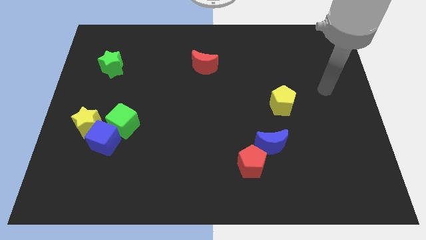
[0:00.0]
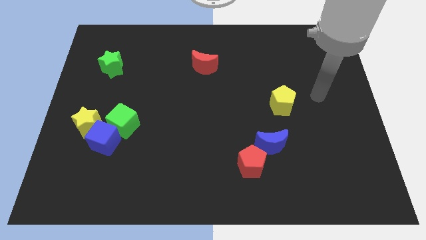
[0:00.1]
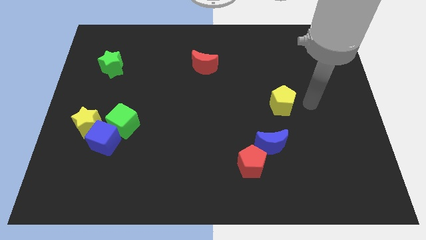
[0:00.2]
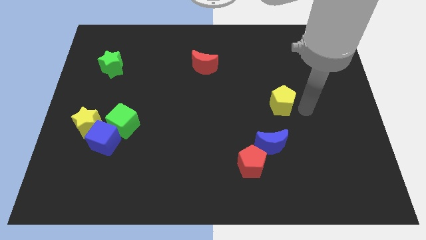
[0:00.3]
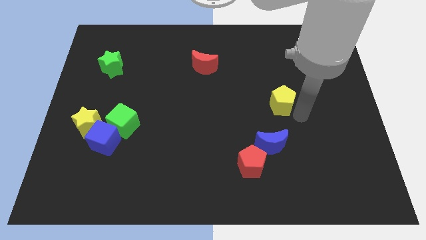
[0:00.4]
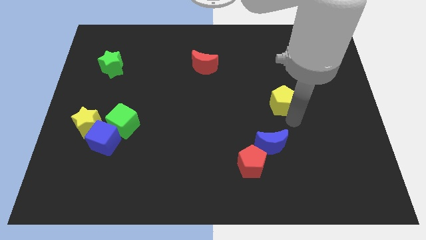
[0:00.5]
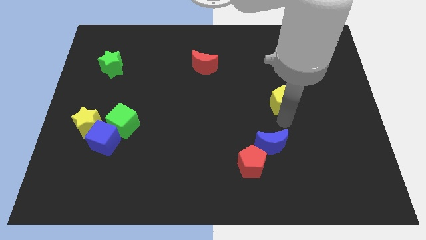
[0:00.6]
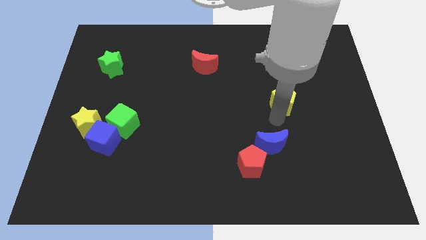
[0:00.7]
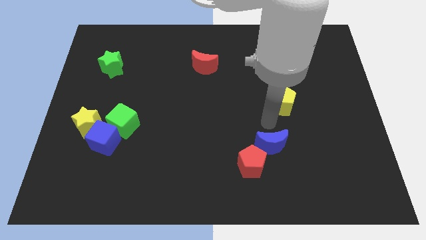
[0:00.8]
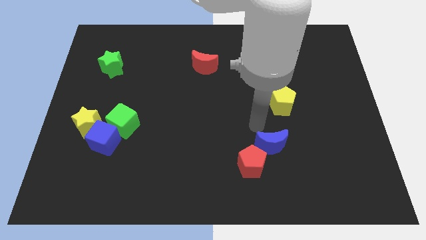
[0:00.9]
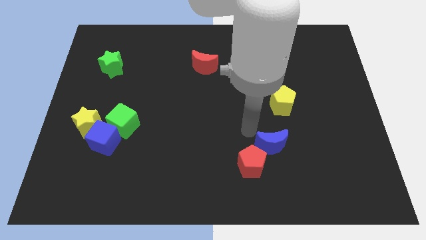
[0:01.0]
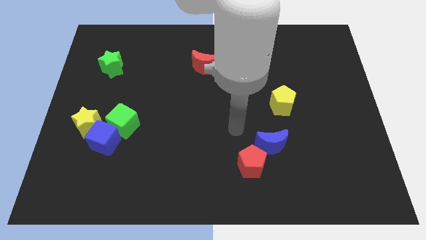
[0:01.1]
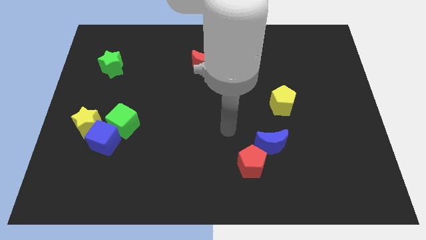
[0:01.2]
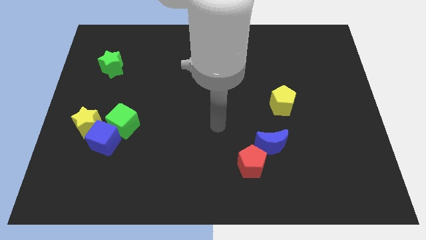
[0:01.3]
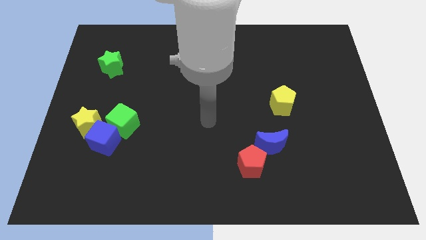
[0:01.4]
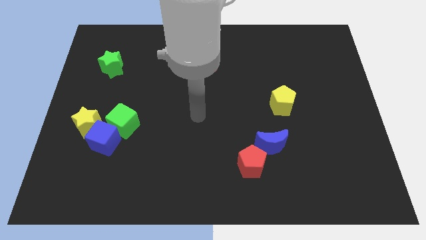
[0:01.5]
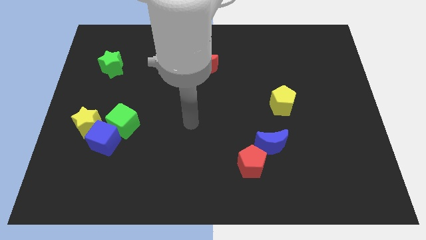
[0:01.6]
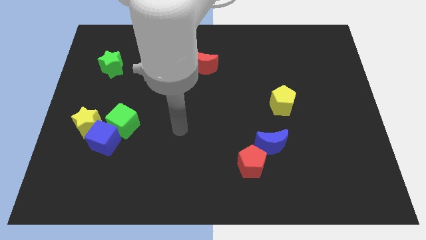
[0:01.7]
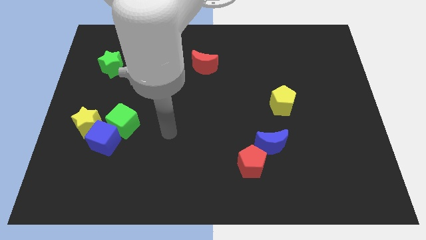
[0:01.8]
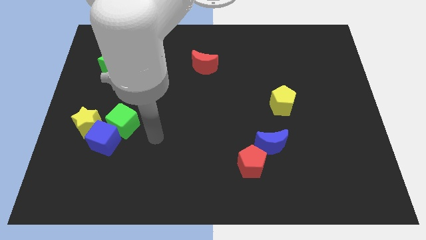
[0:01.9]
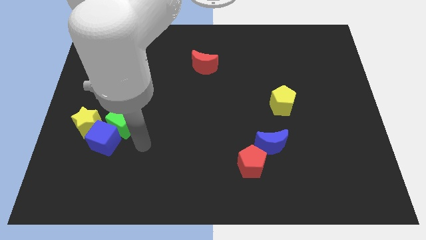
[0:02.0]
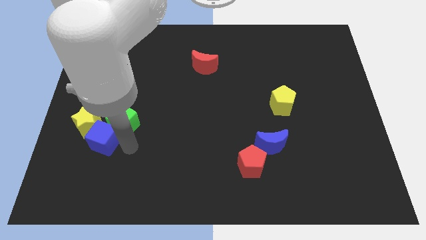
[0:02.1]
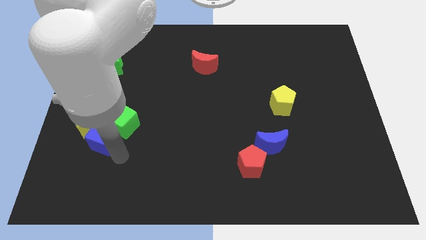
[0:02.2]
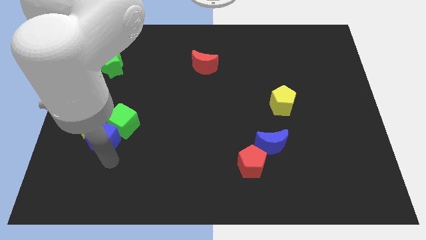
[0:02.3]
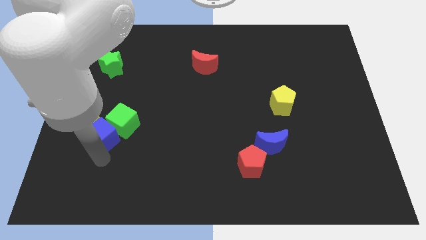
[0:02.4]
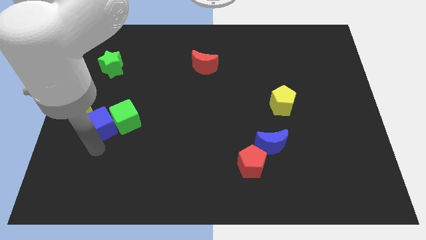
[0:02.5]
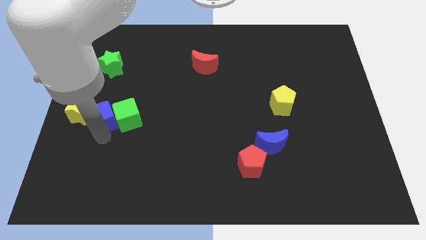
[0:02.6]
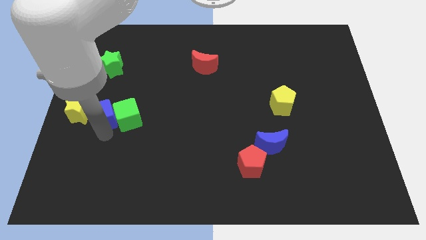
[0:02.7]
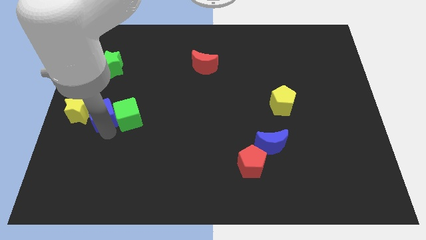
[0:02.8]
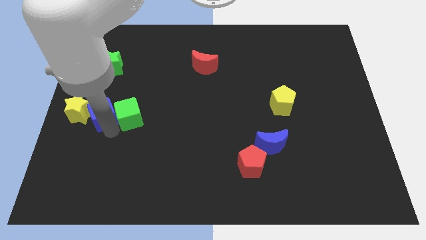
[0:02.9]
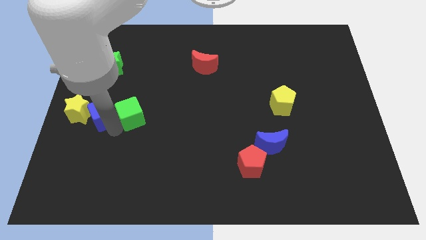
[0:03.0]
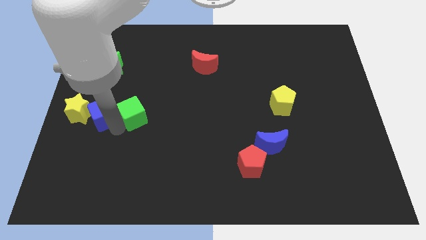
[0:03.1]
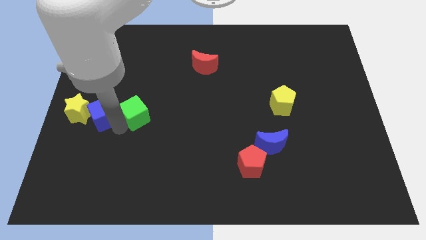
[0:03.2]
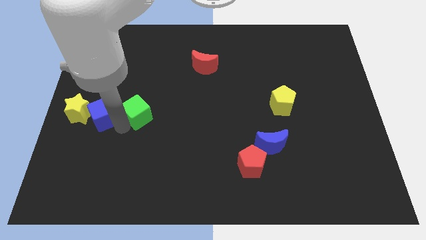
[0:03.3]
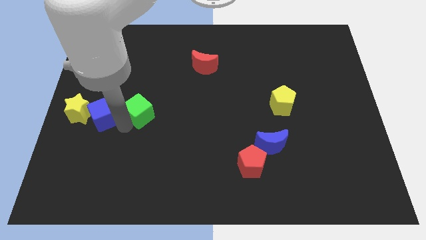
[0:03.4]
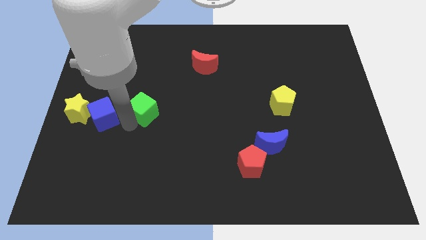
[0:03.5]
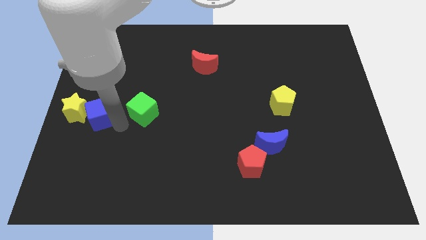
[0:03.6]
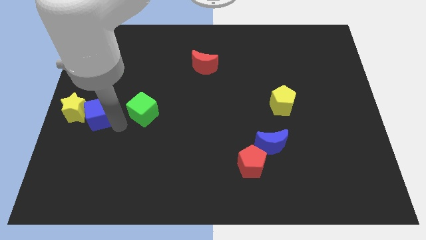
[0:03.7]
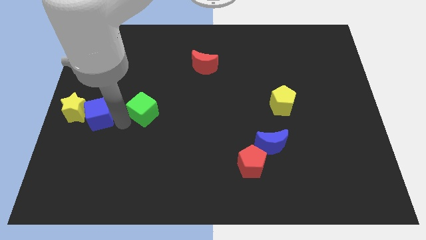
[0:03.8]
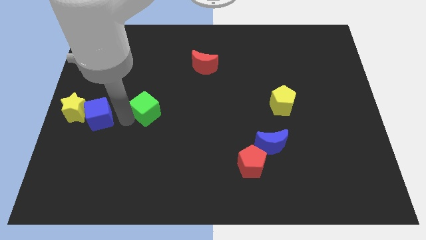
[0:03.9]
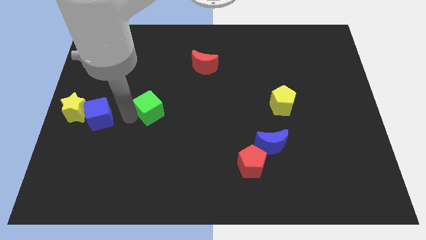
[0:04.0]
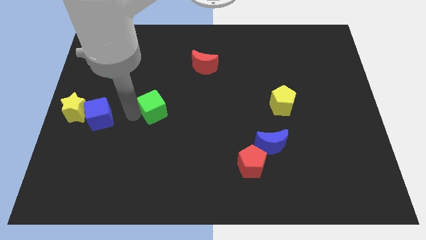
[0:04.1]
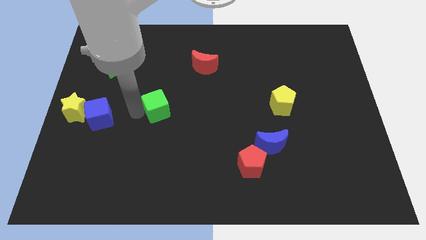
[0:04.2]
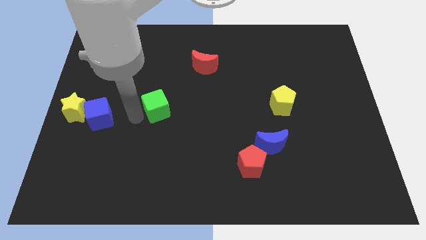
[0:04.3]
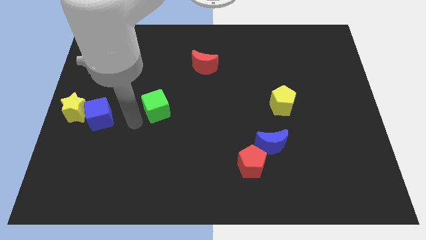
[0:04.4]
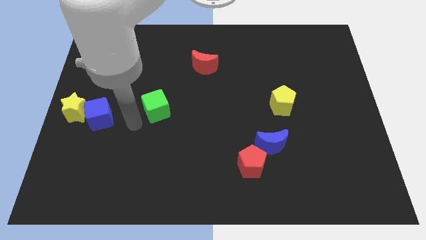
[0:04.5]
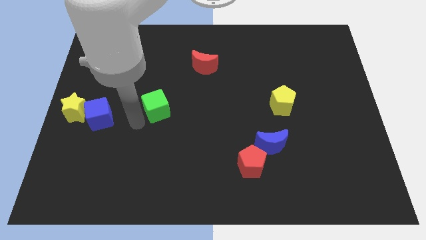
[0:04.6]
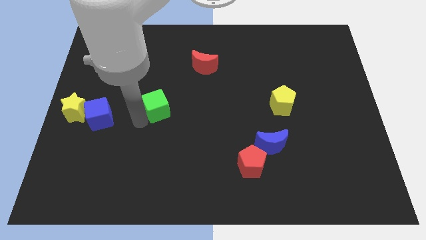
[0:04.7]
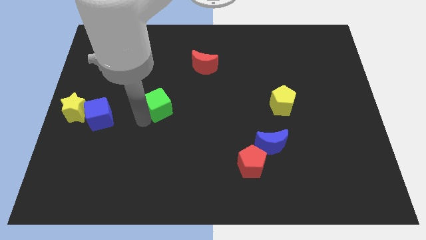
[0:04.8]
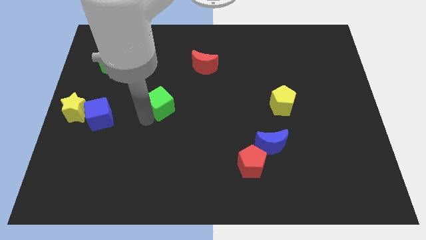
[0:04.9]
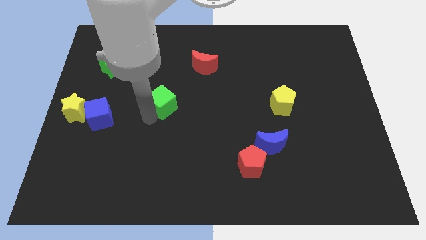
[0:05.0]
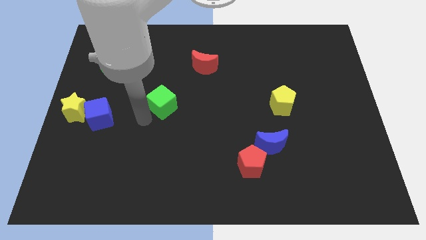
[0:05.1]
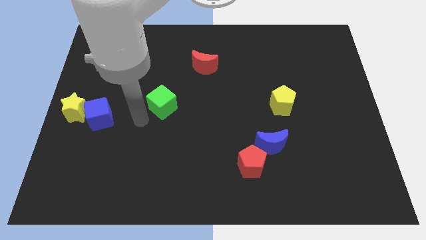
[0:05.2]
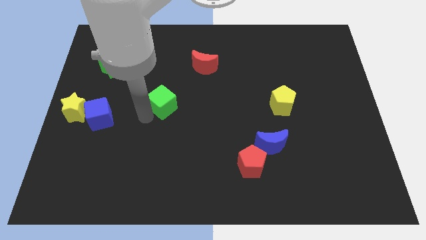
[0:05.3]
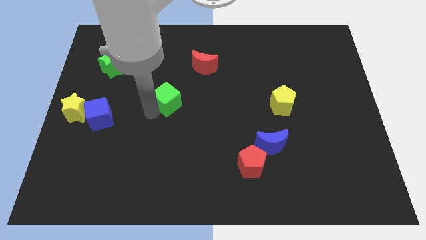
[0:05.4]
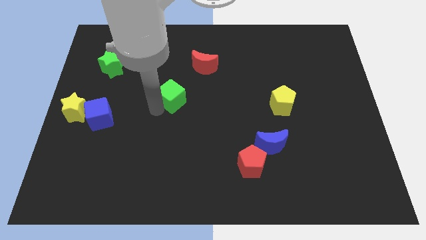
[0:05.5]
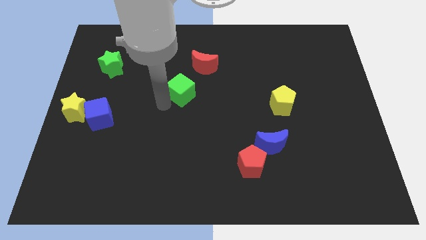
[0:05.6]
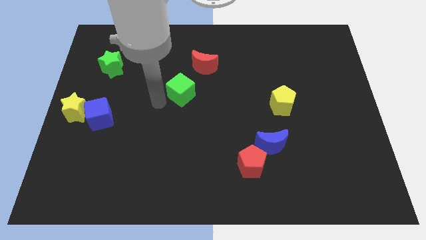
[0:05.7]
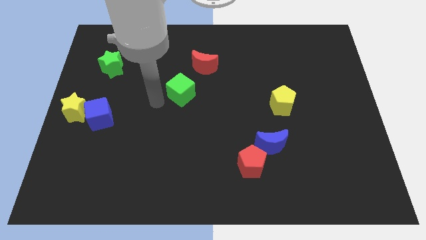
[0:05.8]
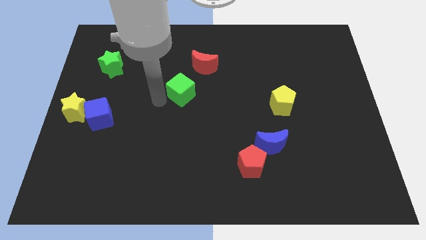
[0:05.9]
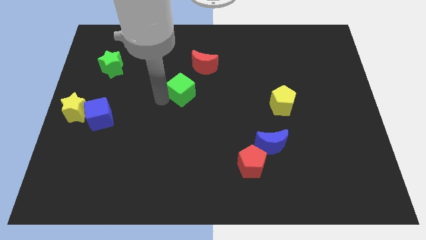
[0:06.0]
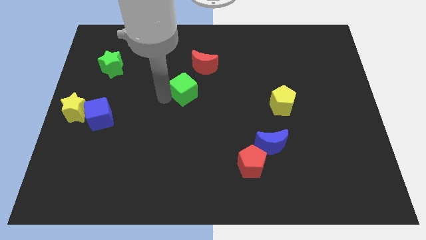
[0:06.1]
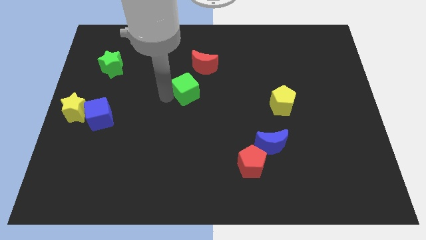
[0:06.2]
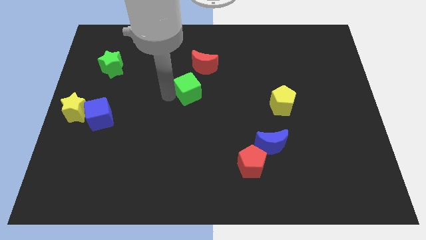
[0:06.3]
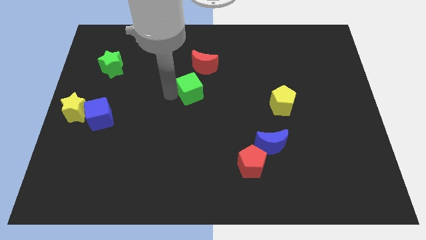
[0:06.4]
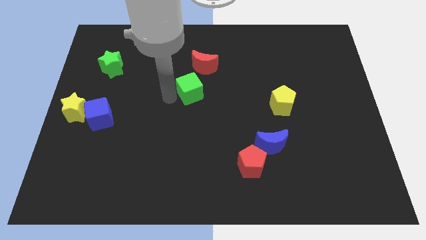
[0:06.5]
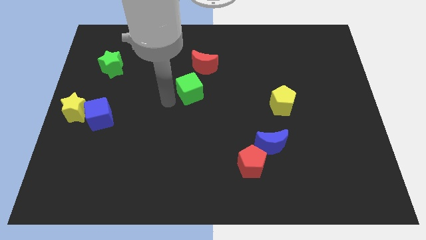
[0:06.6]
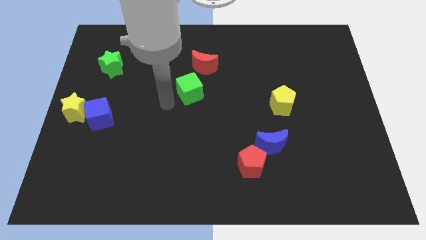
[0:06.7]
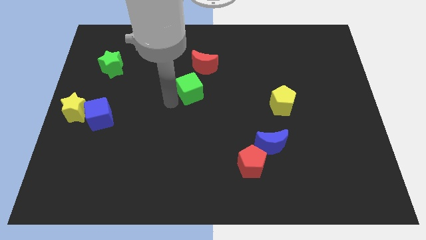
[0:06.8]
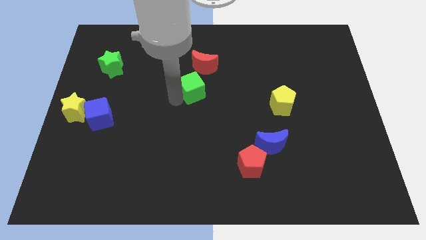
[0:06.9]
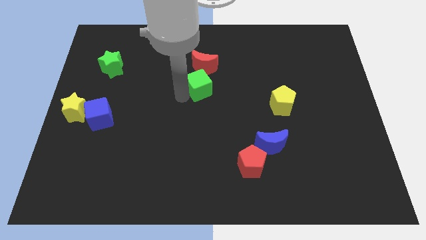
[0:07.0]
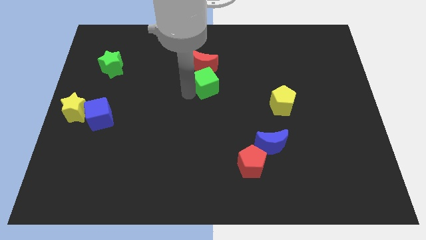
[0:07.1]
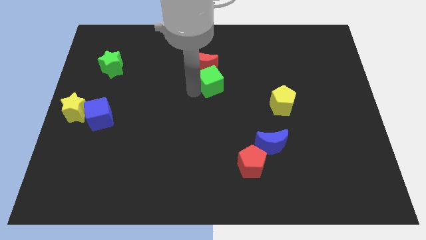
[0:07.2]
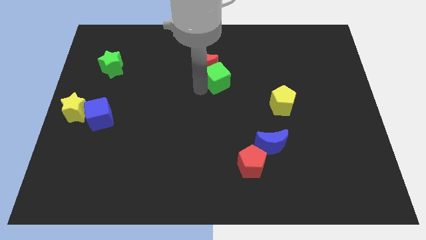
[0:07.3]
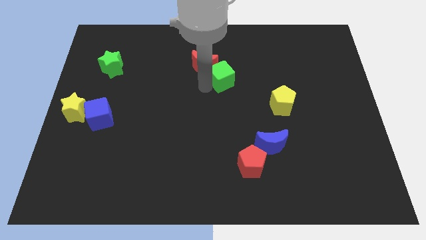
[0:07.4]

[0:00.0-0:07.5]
put the green cube just right of the red moon
